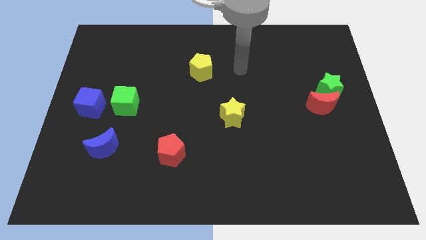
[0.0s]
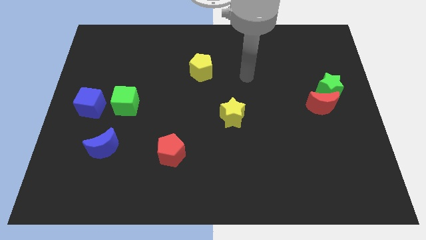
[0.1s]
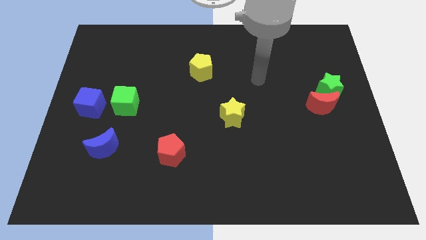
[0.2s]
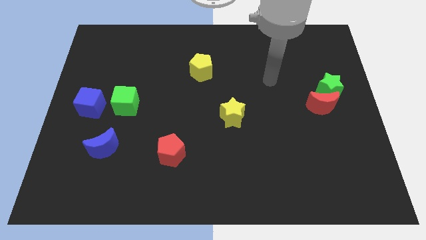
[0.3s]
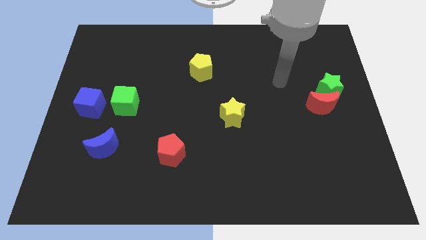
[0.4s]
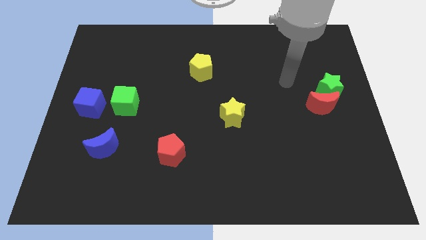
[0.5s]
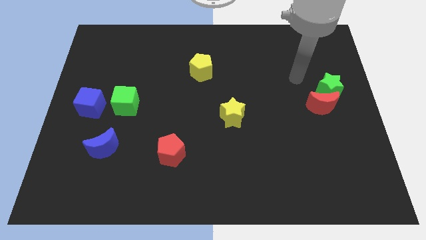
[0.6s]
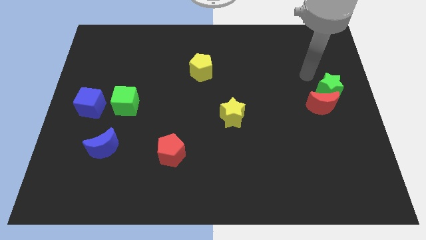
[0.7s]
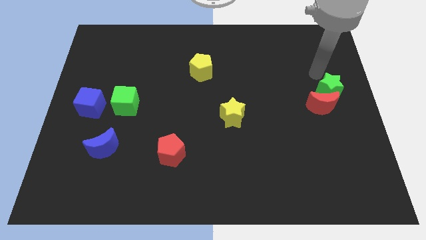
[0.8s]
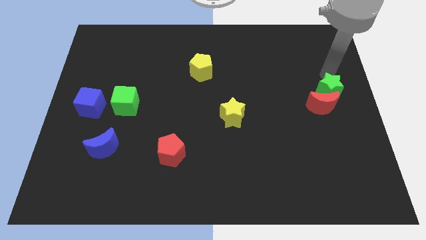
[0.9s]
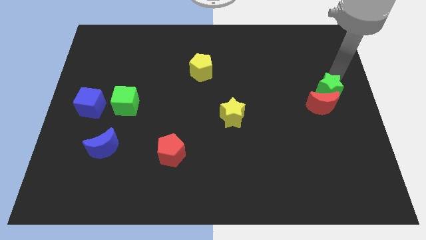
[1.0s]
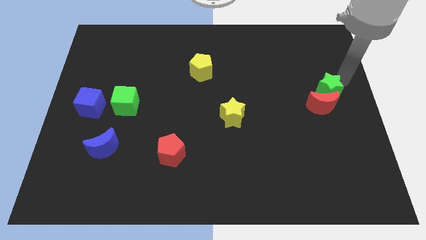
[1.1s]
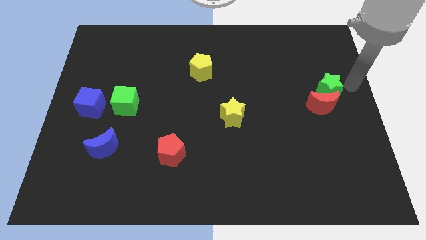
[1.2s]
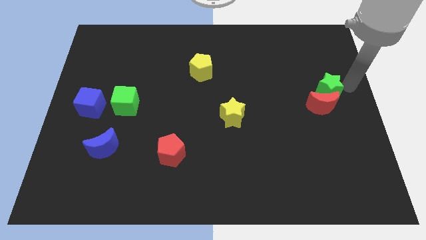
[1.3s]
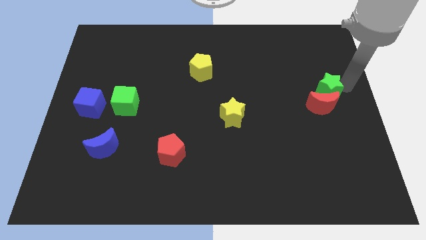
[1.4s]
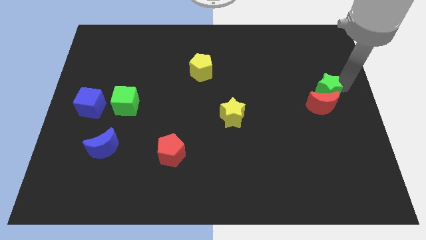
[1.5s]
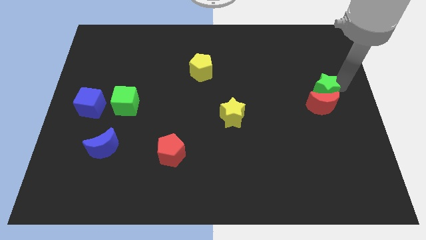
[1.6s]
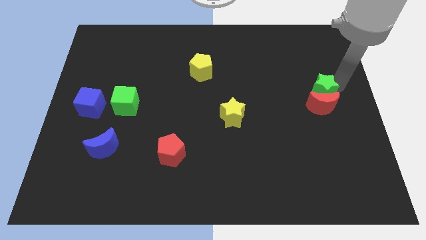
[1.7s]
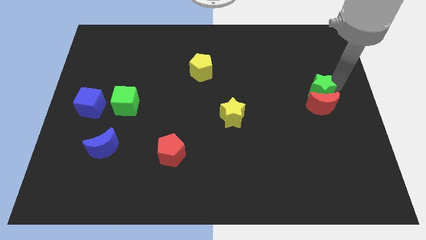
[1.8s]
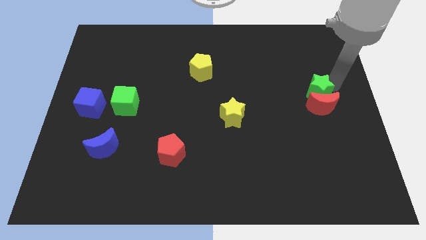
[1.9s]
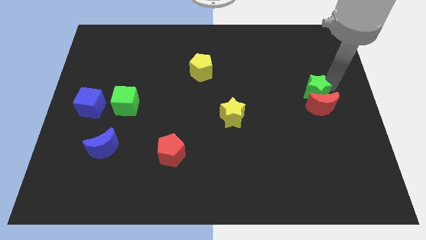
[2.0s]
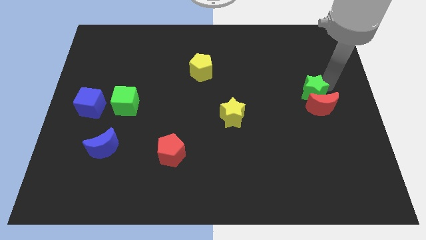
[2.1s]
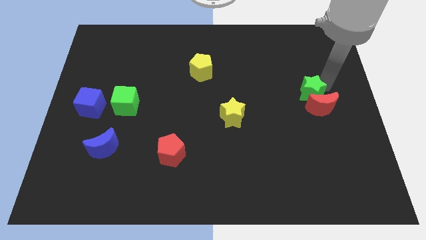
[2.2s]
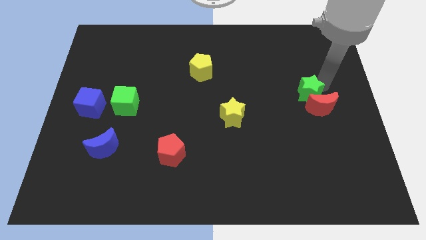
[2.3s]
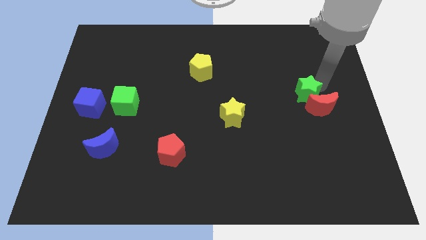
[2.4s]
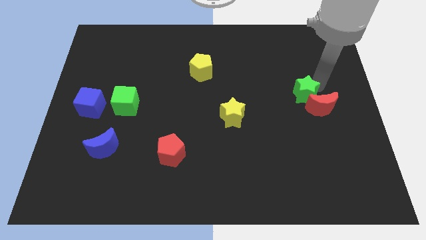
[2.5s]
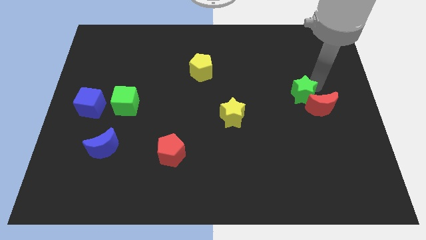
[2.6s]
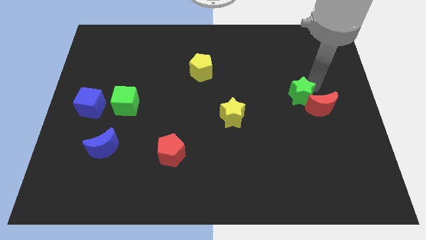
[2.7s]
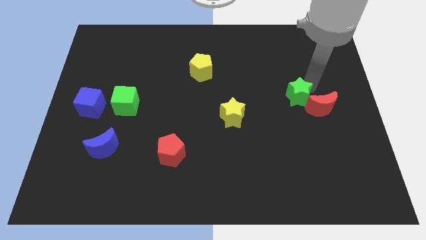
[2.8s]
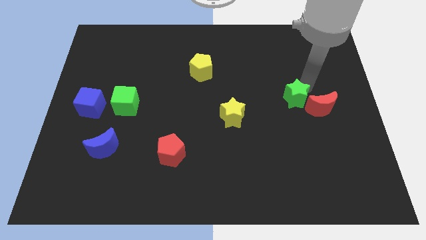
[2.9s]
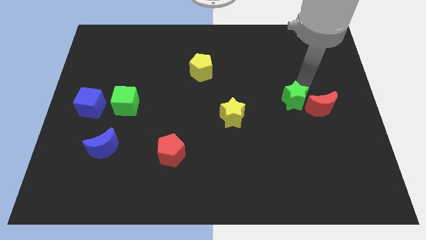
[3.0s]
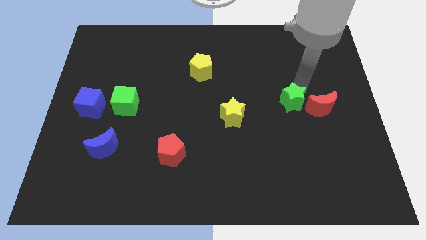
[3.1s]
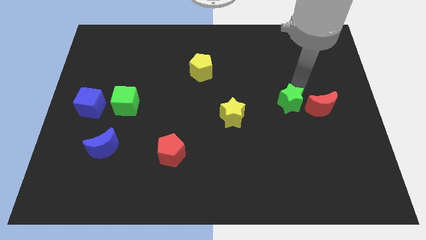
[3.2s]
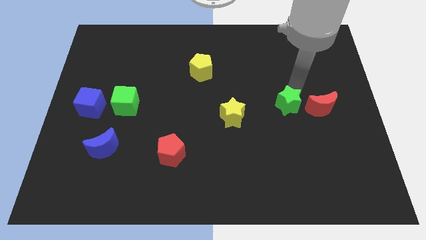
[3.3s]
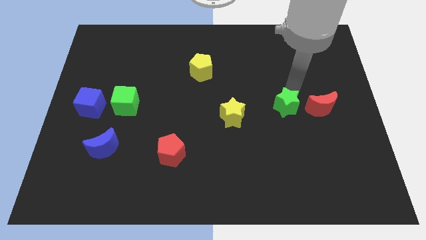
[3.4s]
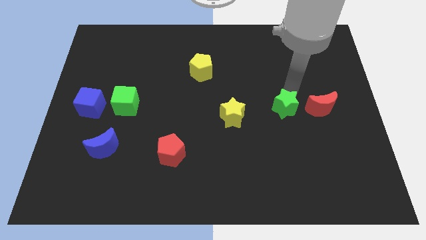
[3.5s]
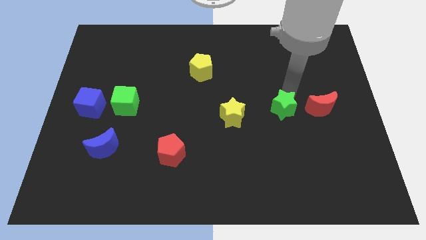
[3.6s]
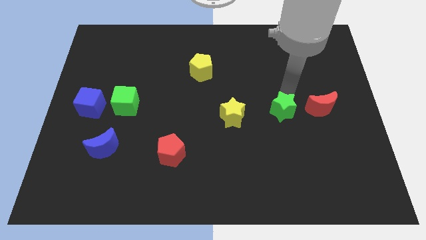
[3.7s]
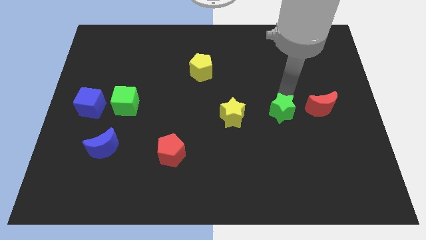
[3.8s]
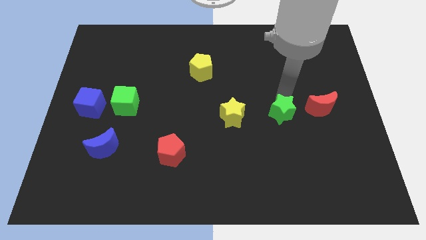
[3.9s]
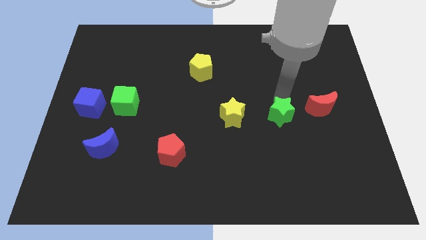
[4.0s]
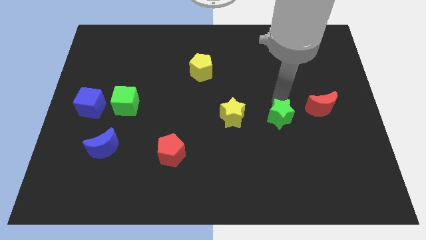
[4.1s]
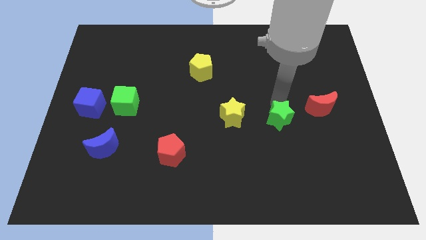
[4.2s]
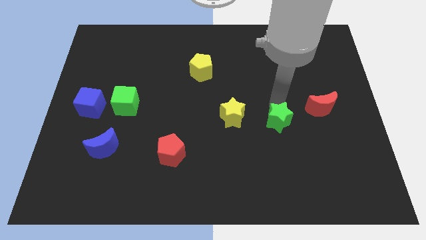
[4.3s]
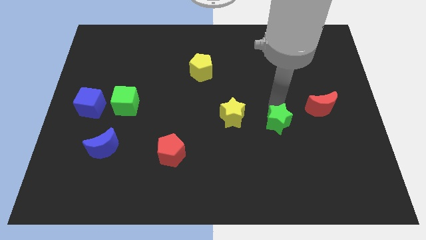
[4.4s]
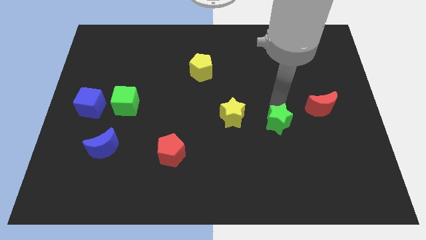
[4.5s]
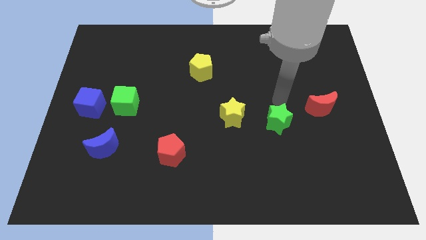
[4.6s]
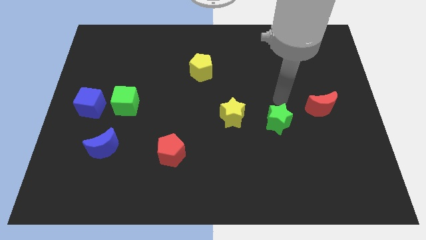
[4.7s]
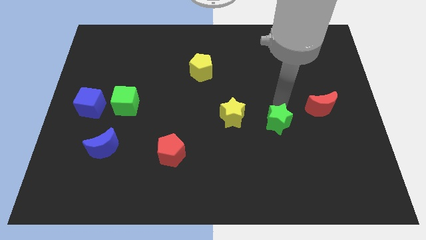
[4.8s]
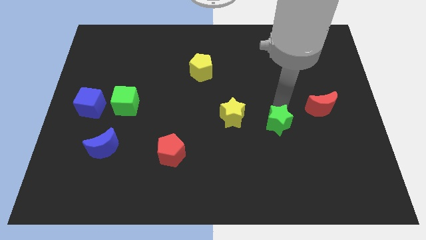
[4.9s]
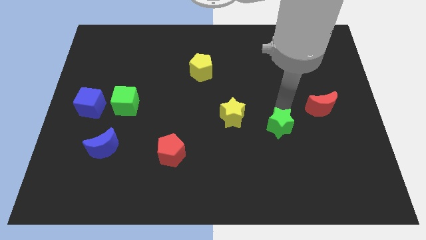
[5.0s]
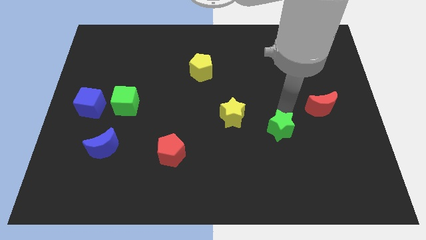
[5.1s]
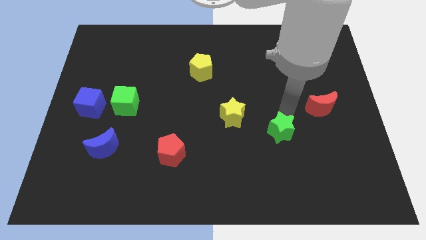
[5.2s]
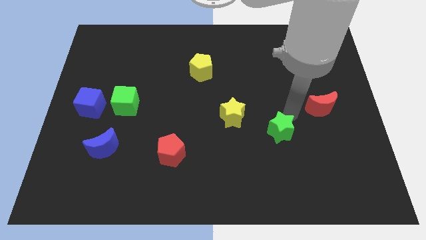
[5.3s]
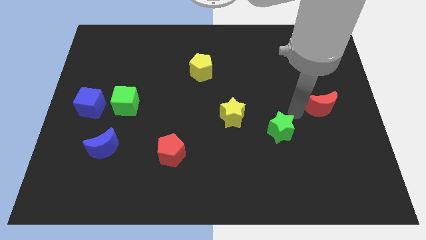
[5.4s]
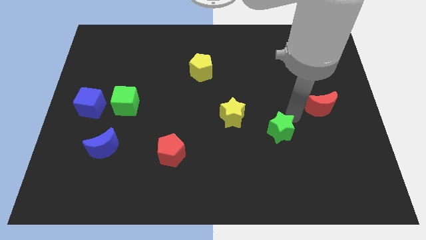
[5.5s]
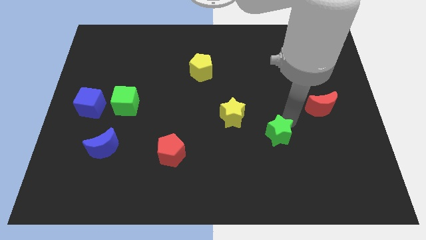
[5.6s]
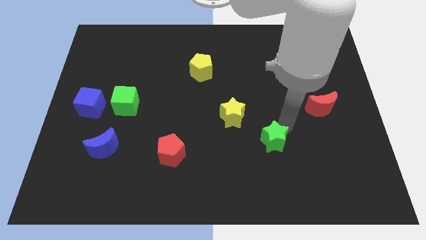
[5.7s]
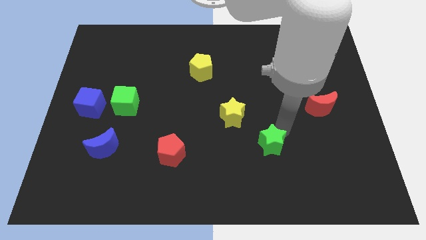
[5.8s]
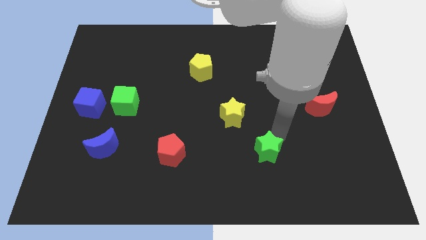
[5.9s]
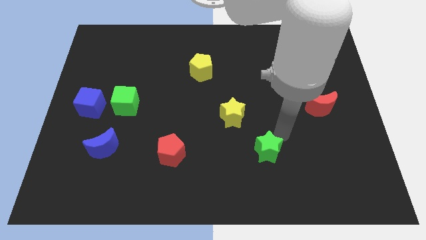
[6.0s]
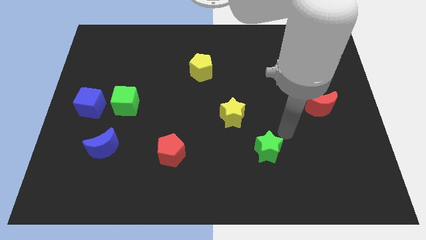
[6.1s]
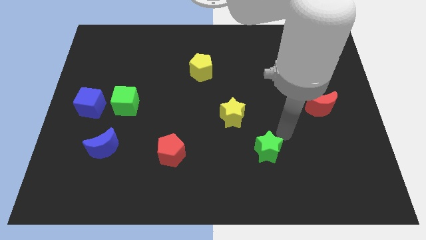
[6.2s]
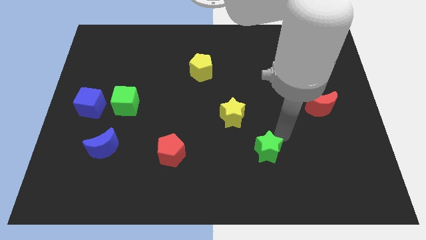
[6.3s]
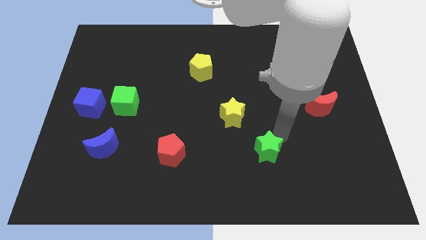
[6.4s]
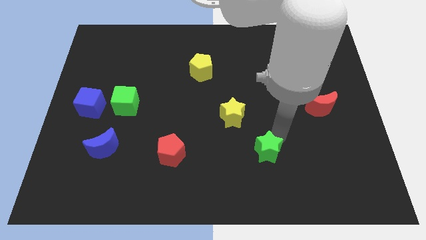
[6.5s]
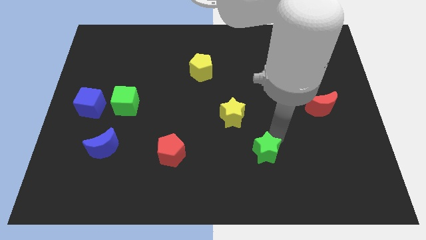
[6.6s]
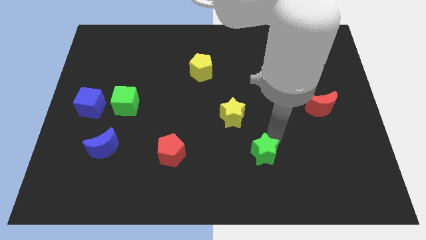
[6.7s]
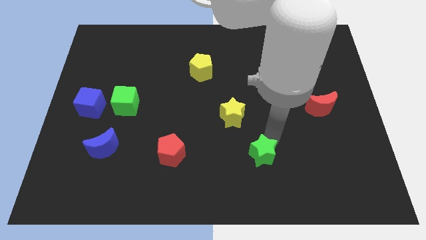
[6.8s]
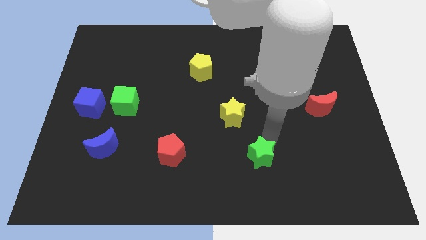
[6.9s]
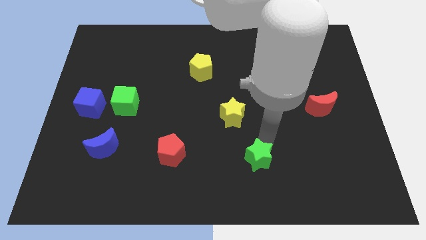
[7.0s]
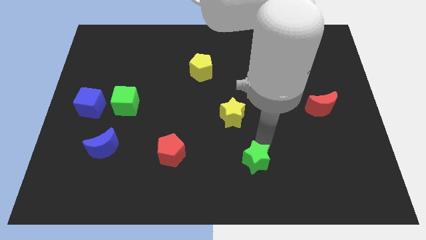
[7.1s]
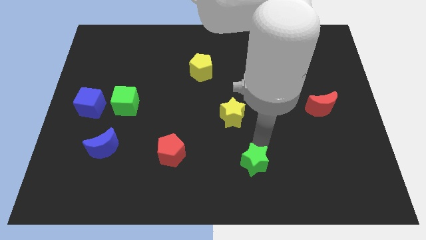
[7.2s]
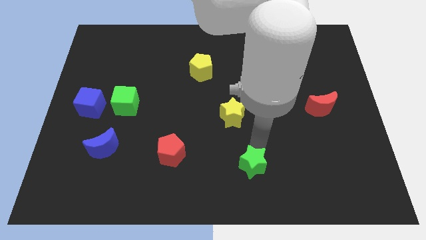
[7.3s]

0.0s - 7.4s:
put the green star to the bottom
